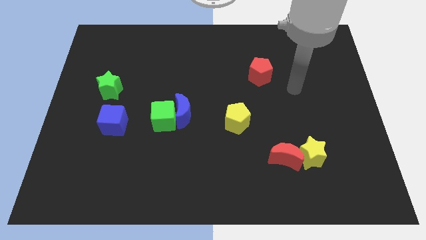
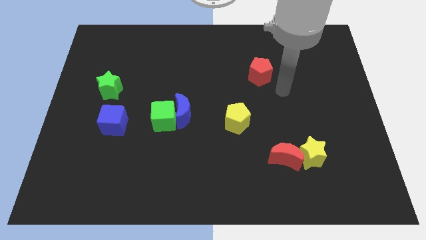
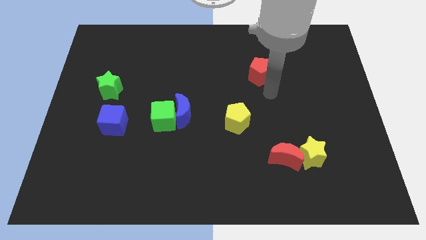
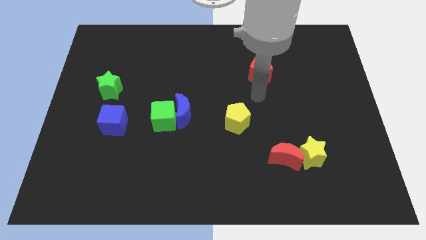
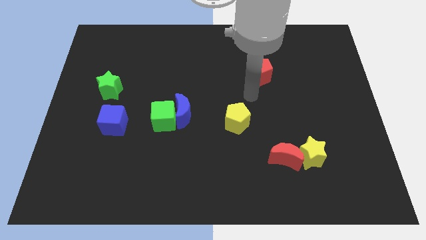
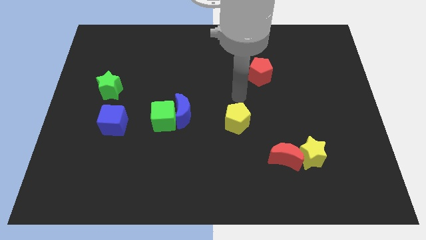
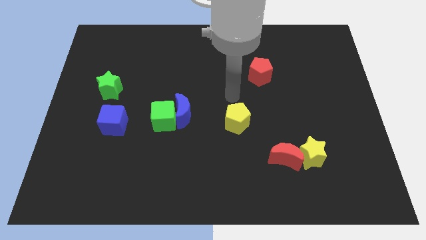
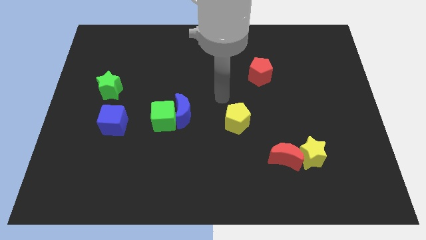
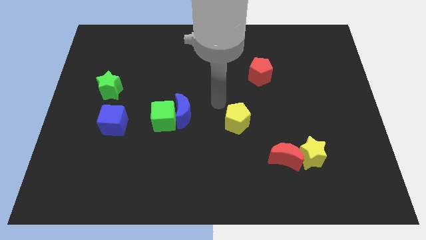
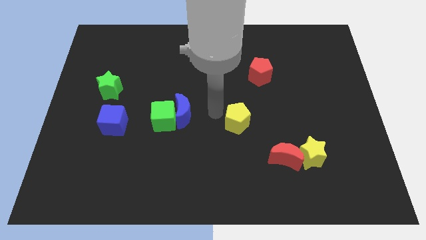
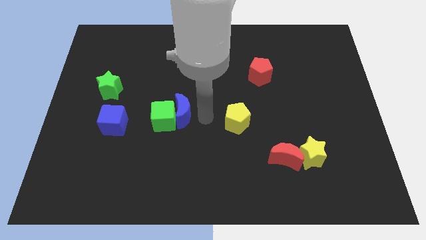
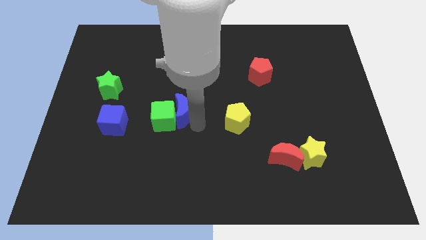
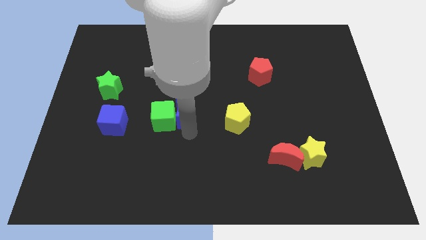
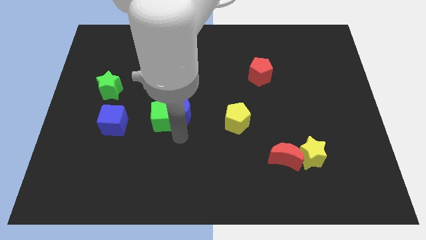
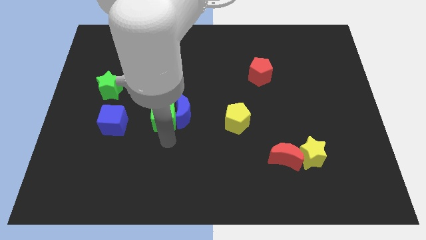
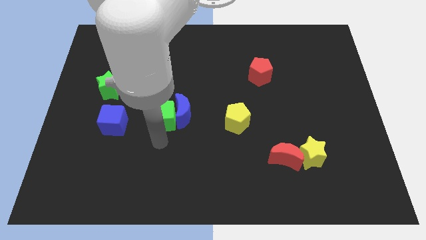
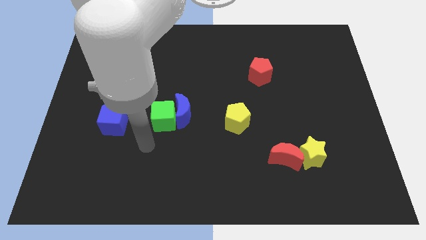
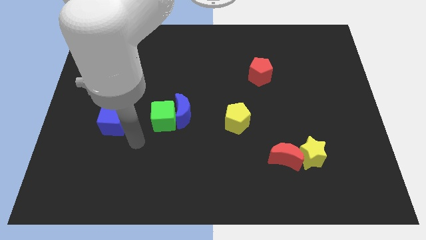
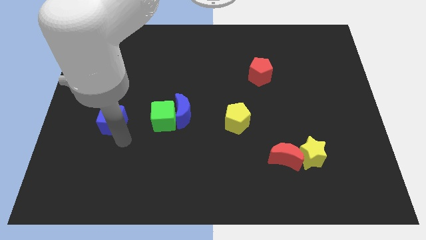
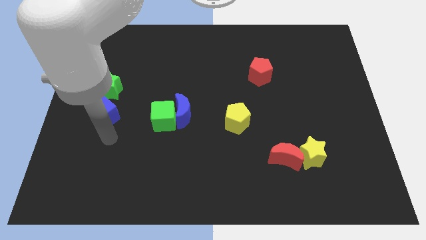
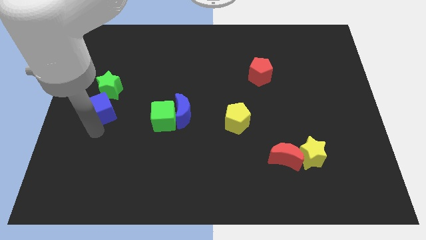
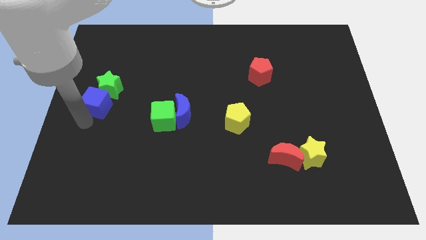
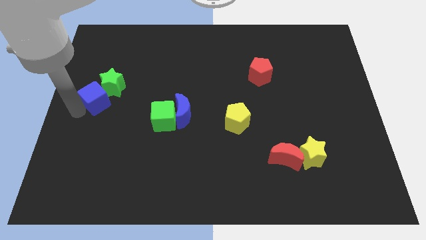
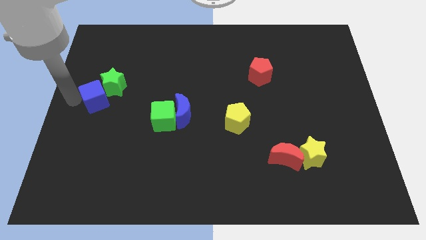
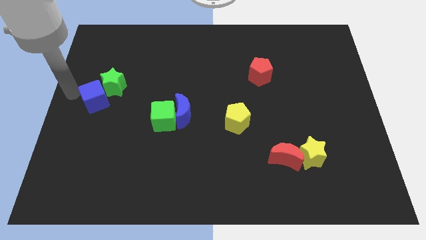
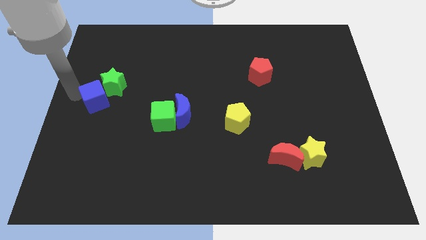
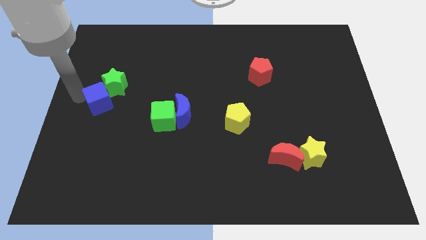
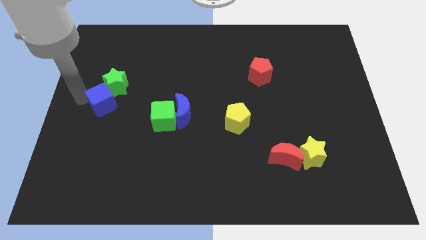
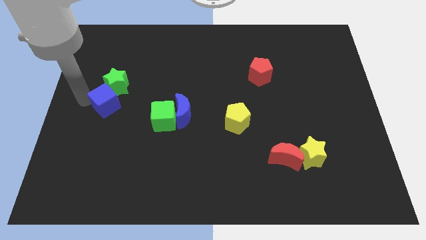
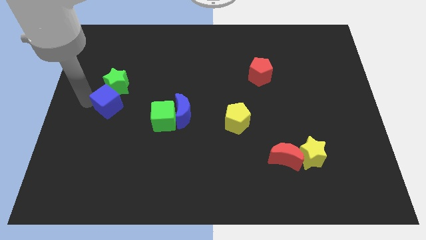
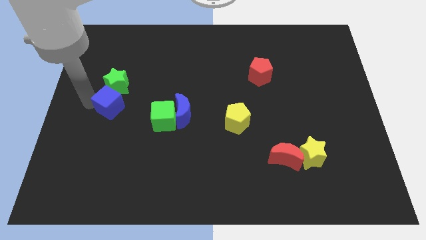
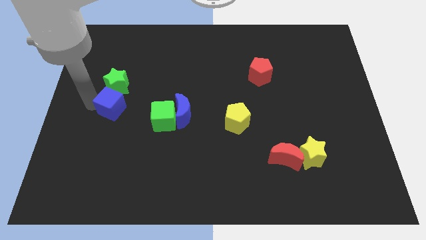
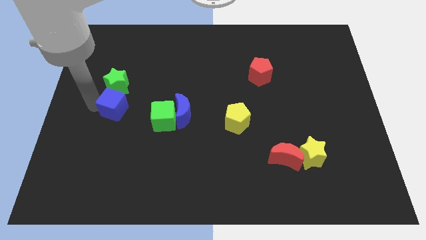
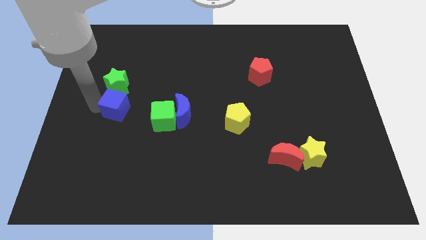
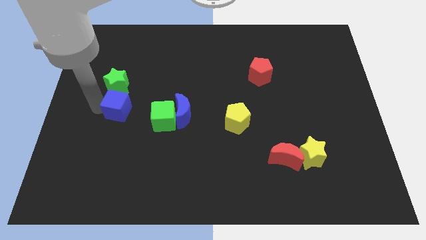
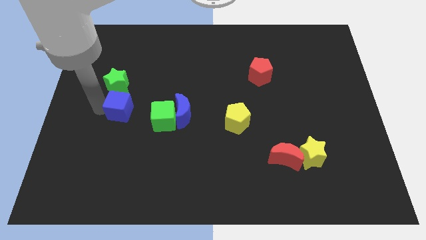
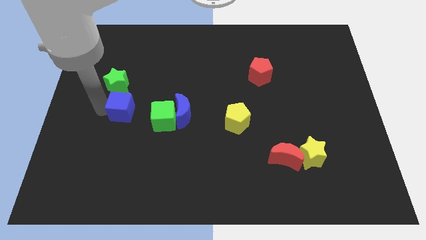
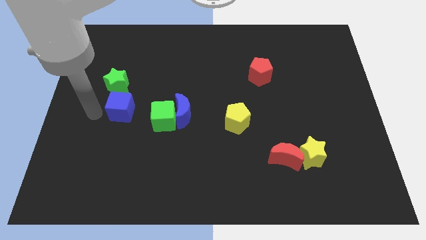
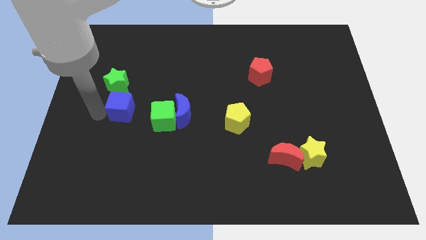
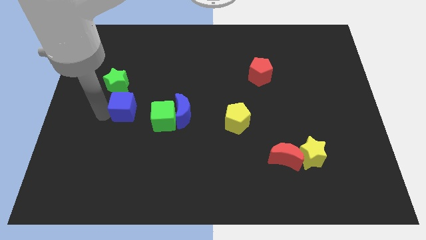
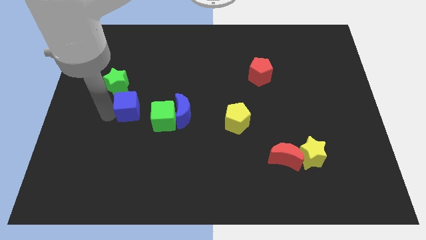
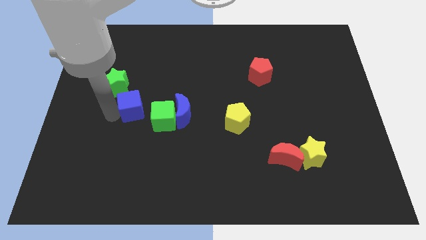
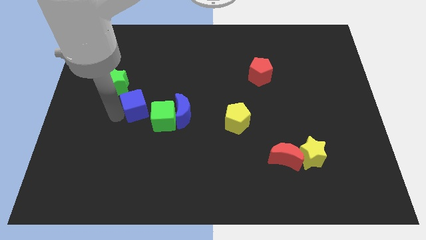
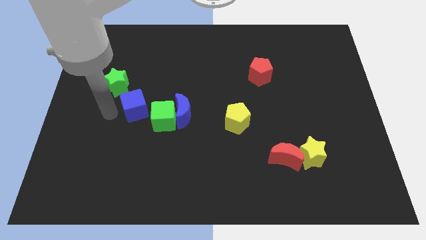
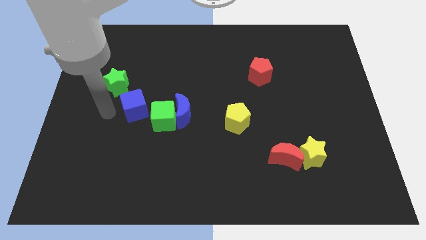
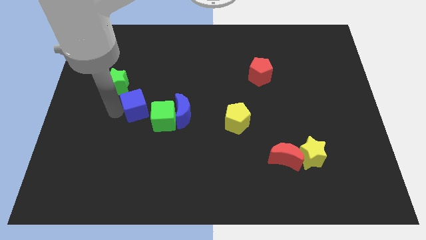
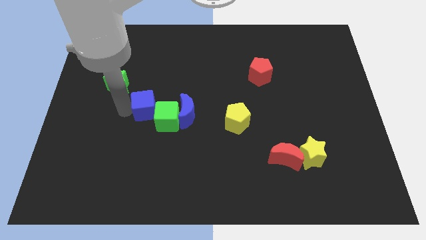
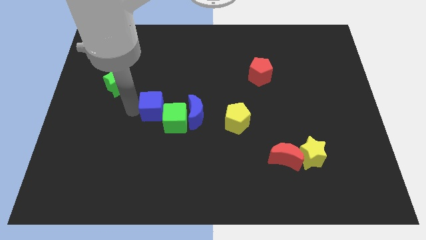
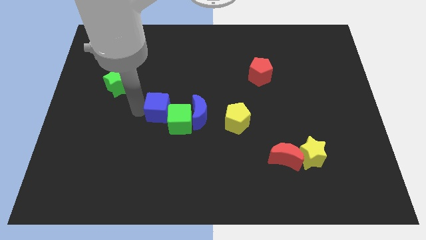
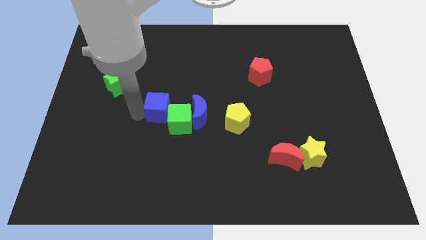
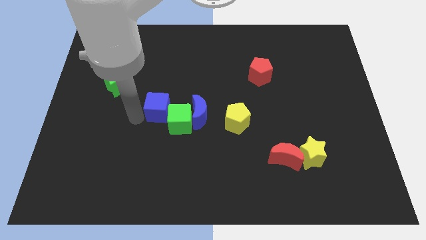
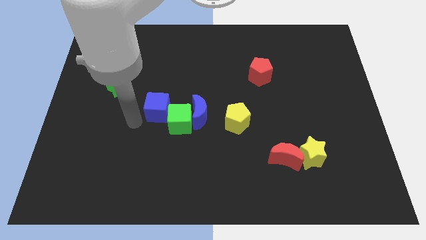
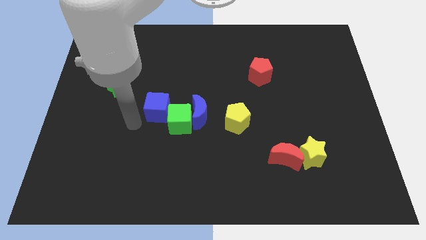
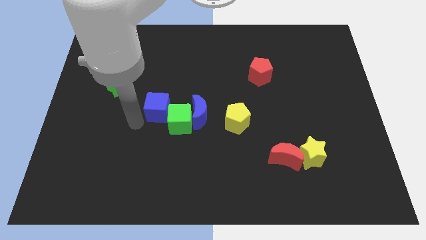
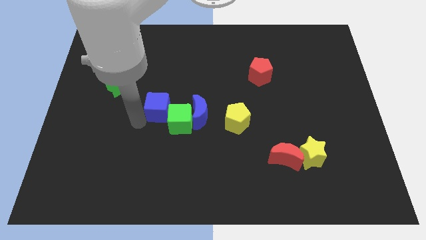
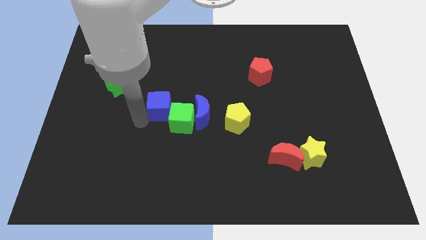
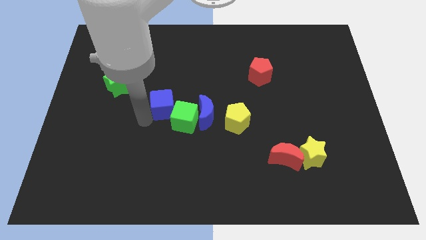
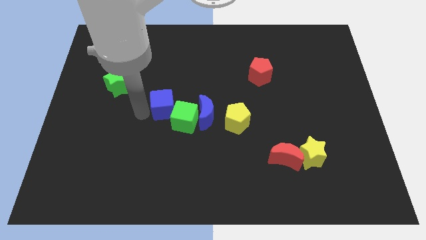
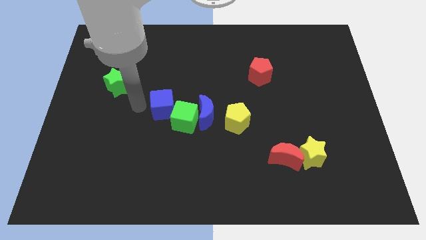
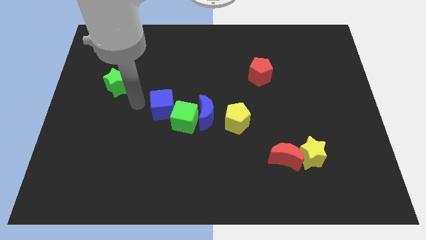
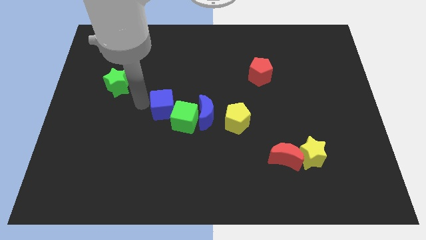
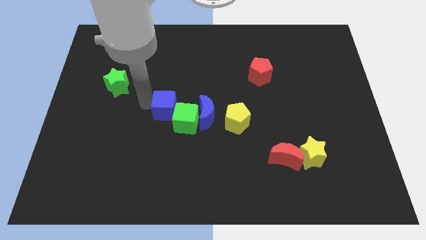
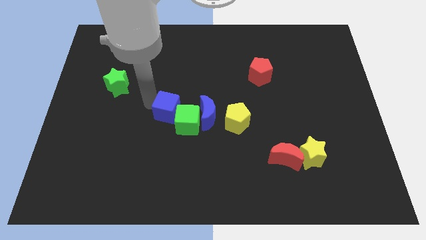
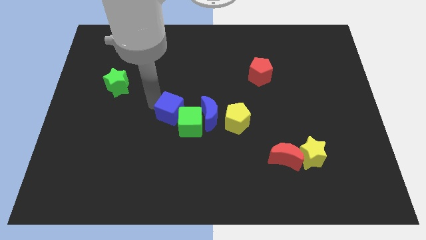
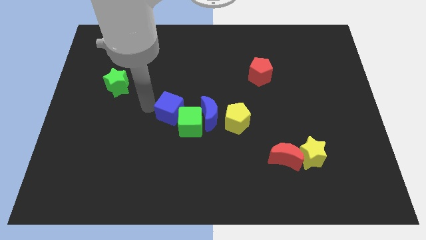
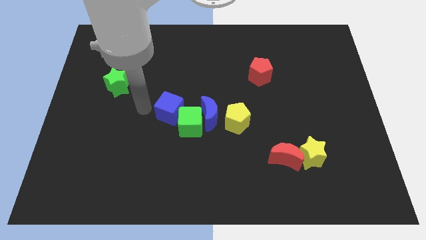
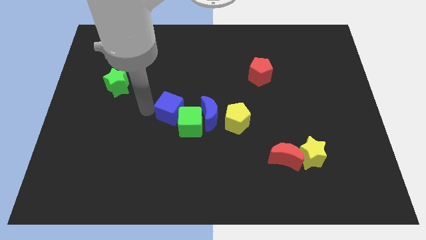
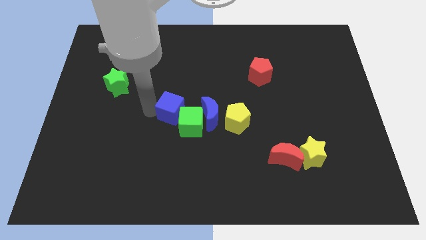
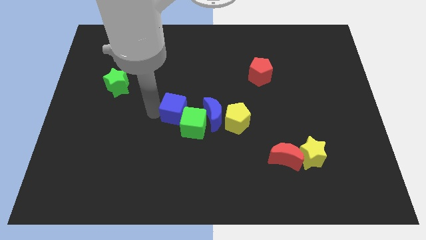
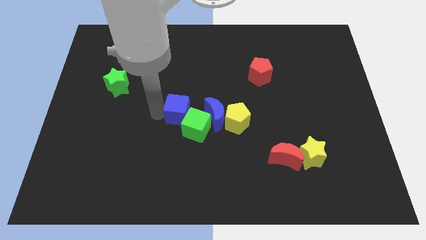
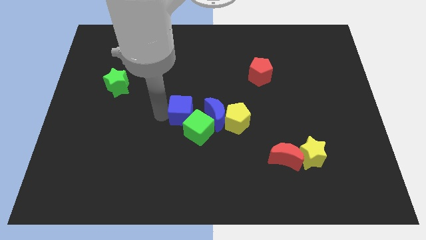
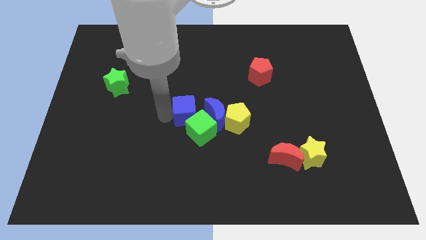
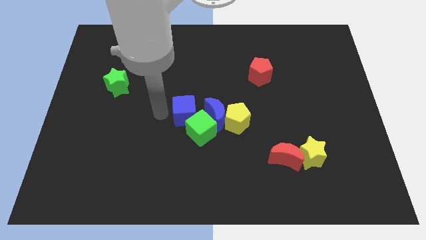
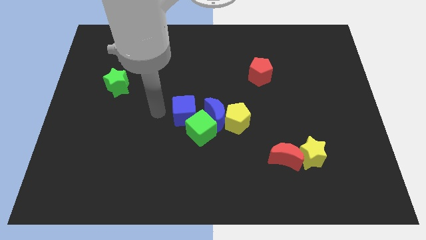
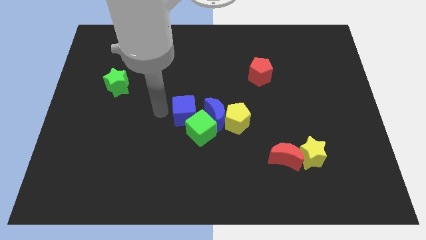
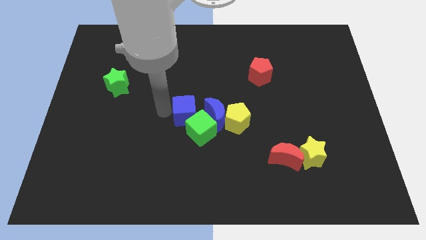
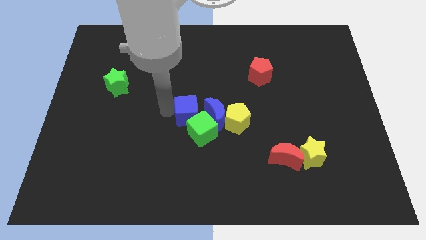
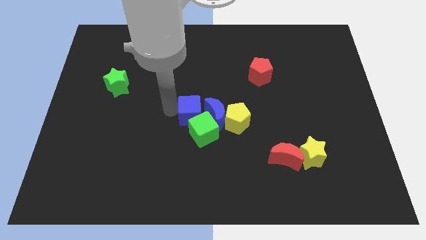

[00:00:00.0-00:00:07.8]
move the blue cube to the blue moon
